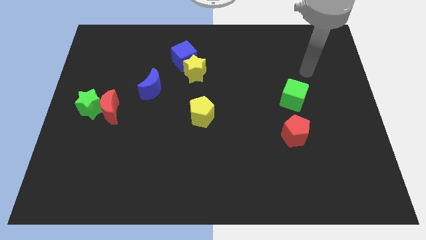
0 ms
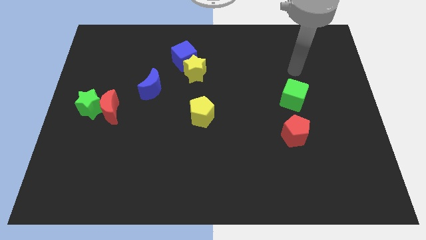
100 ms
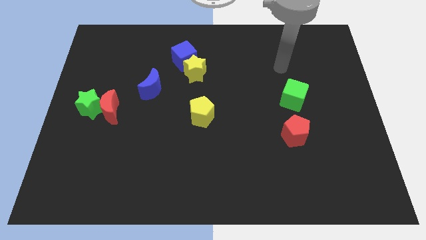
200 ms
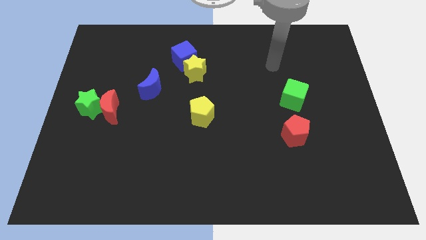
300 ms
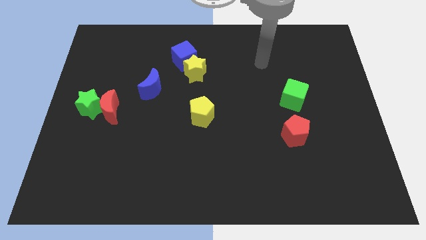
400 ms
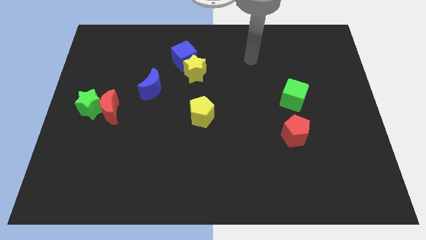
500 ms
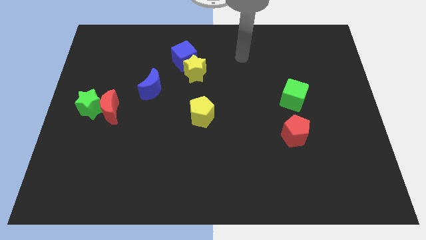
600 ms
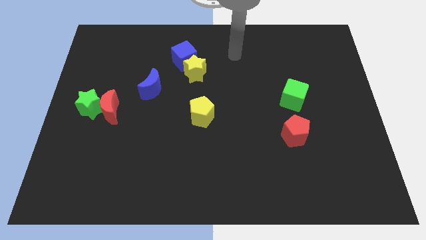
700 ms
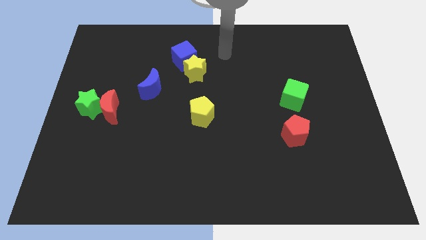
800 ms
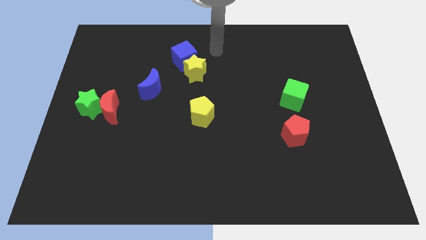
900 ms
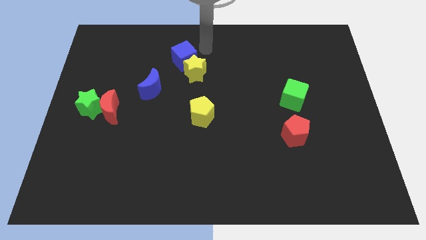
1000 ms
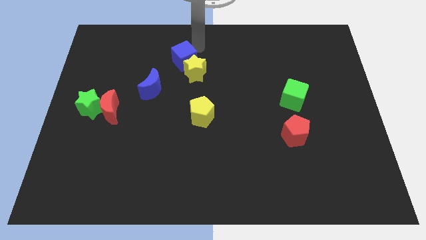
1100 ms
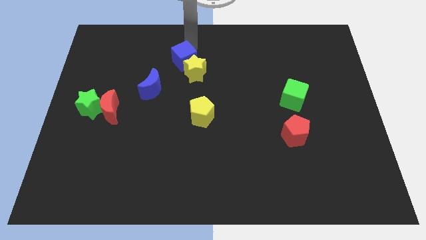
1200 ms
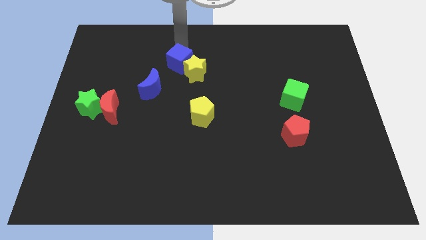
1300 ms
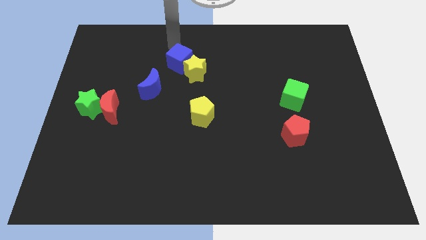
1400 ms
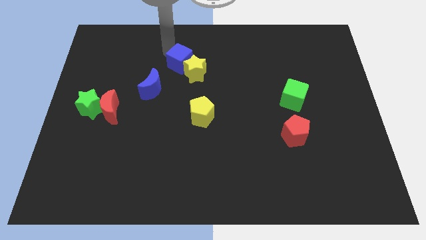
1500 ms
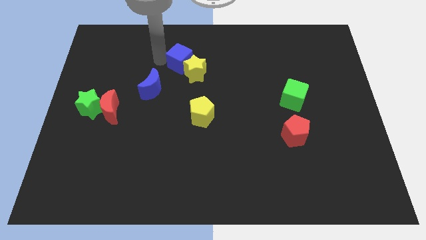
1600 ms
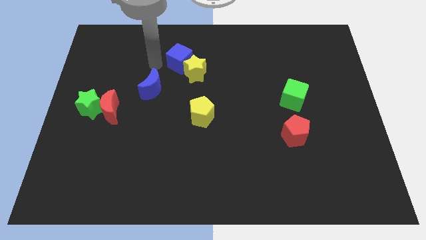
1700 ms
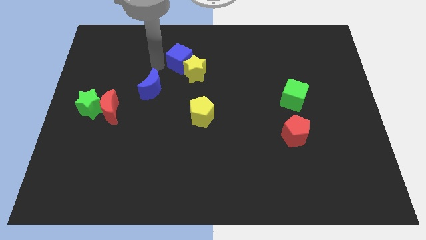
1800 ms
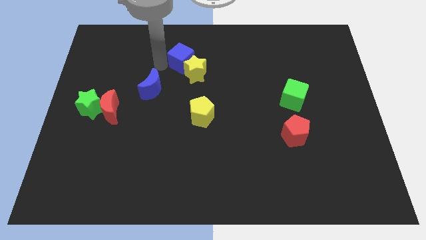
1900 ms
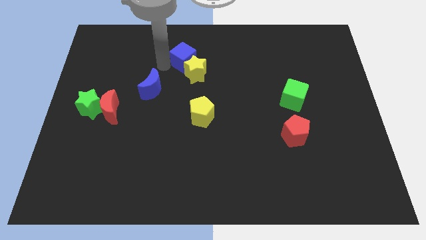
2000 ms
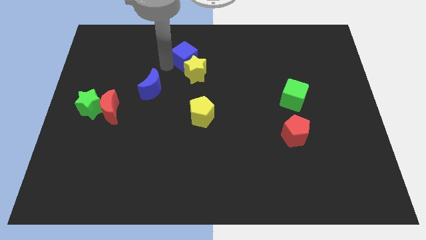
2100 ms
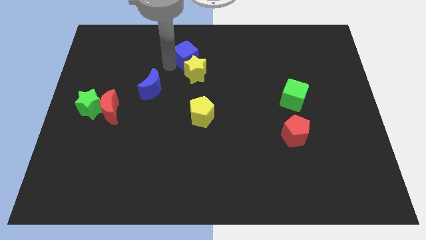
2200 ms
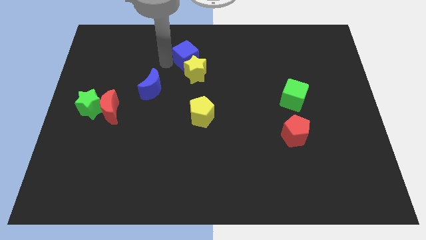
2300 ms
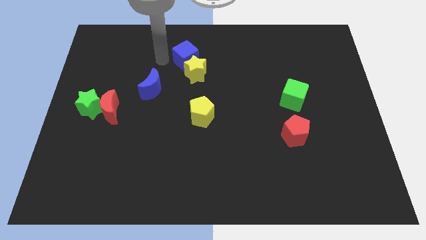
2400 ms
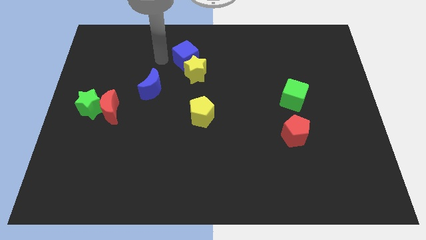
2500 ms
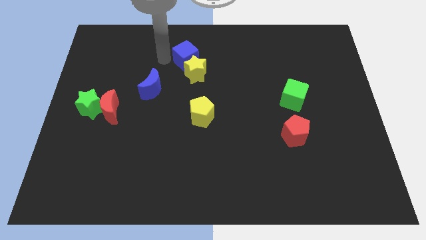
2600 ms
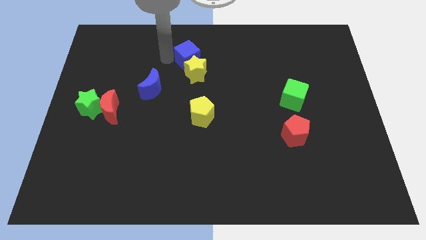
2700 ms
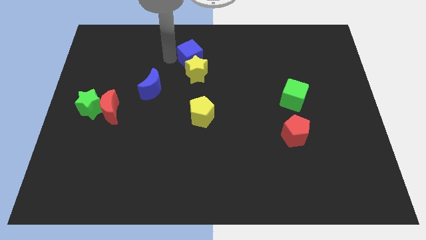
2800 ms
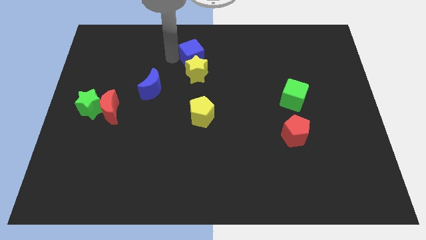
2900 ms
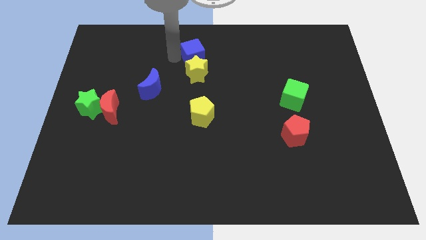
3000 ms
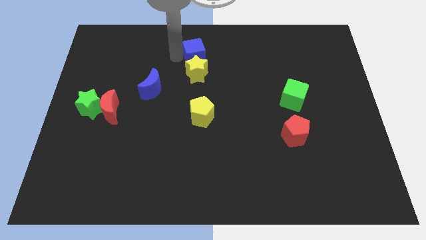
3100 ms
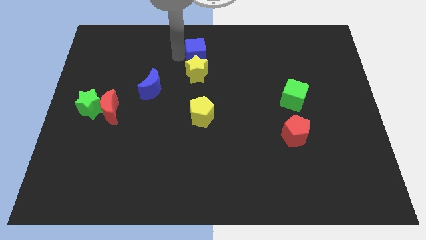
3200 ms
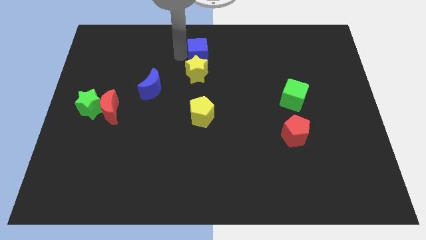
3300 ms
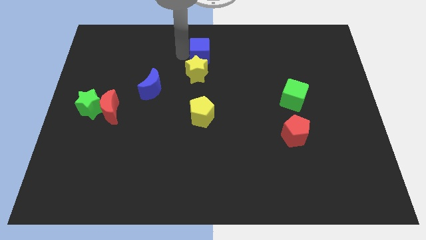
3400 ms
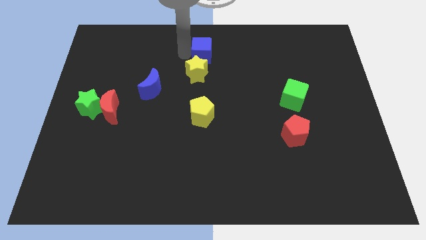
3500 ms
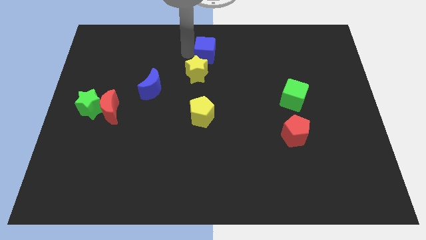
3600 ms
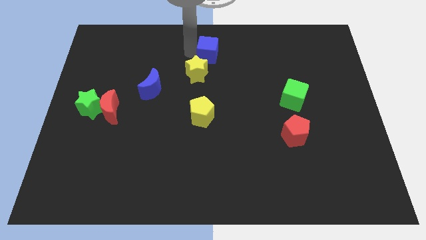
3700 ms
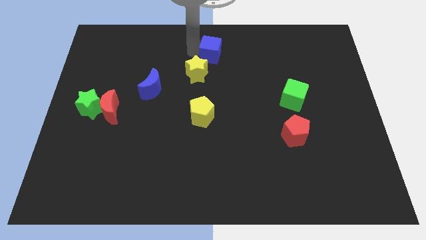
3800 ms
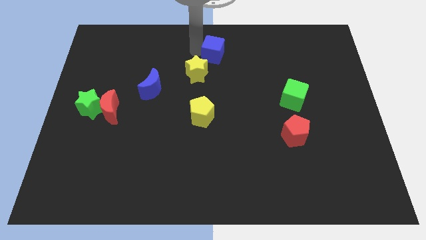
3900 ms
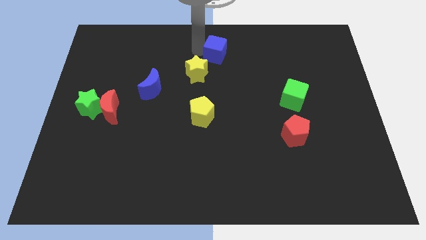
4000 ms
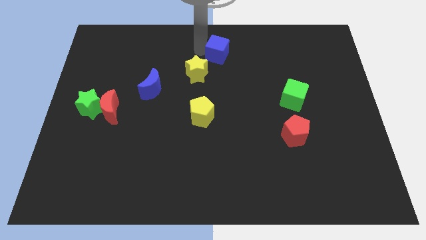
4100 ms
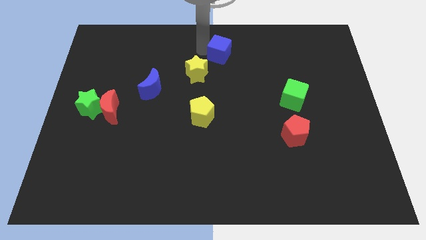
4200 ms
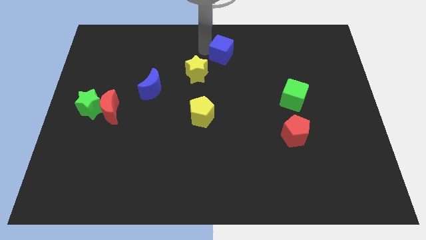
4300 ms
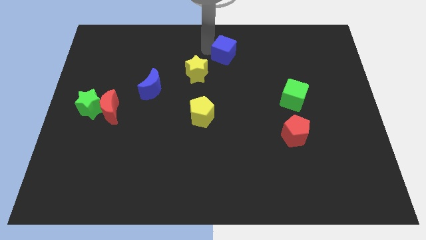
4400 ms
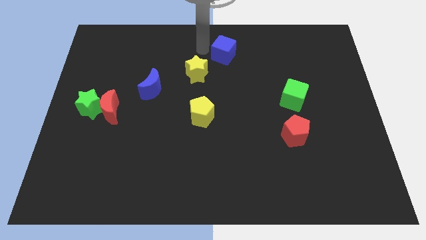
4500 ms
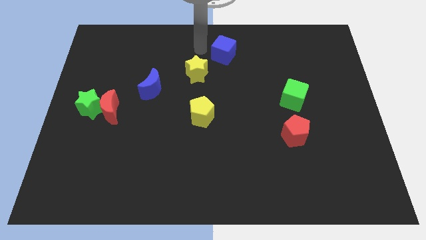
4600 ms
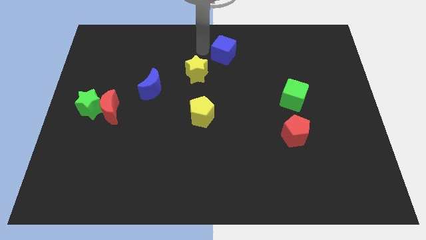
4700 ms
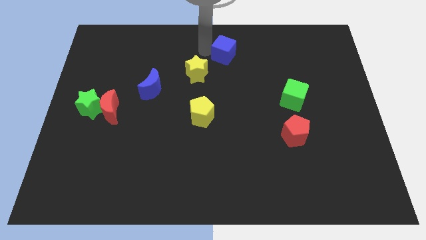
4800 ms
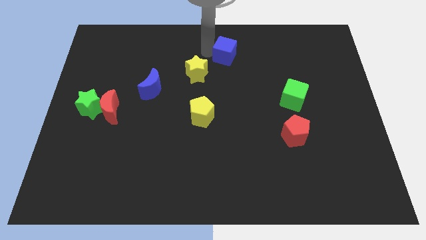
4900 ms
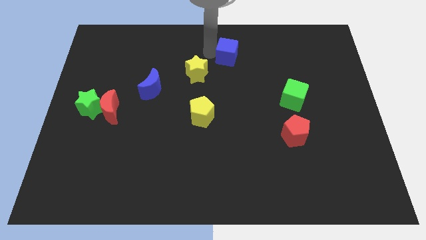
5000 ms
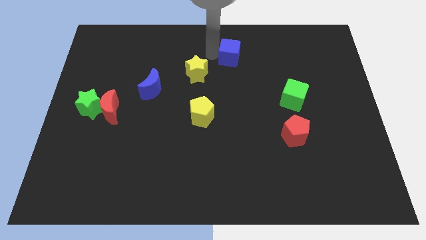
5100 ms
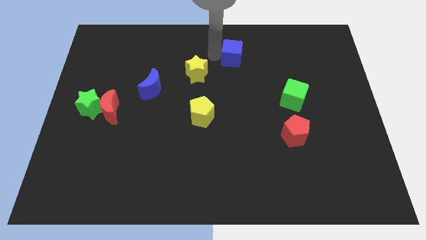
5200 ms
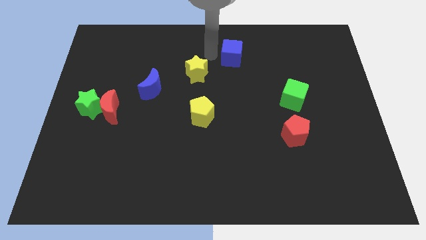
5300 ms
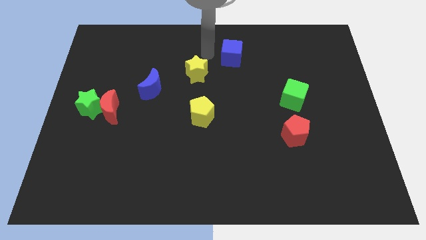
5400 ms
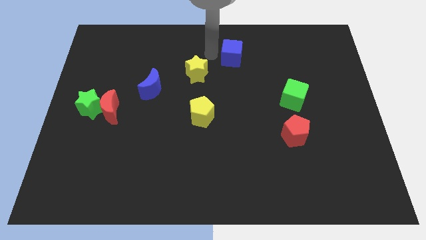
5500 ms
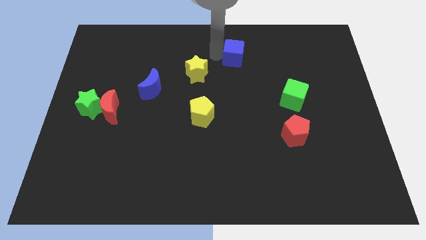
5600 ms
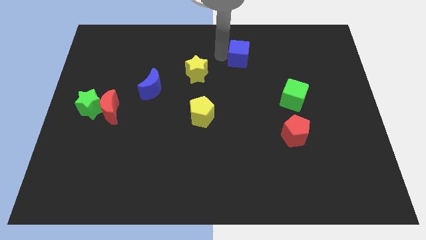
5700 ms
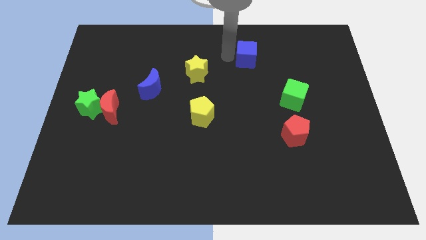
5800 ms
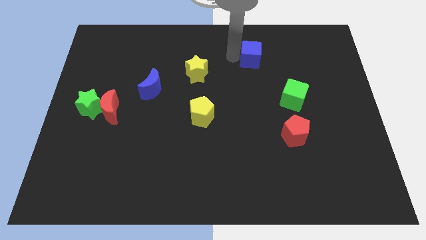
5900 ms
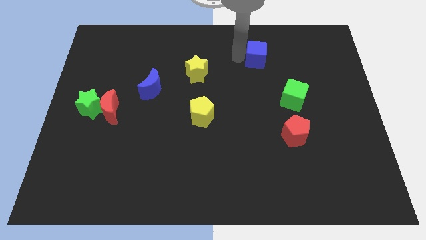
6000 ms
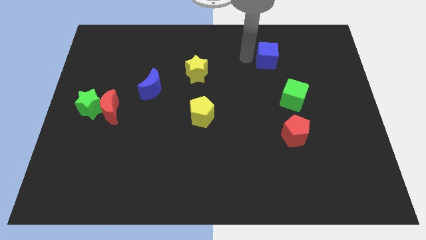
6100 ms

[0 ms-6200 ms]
push the blue cube right

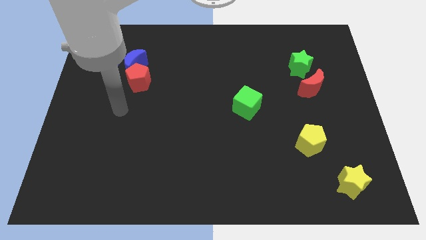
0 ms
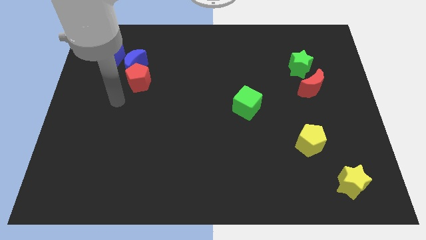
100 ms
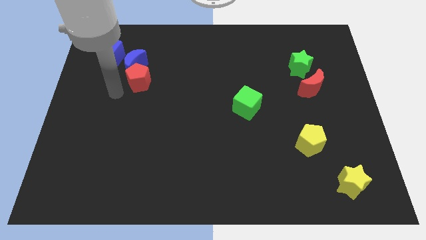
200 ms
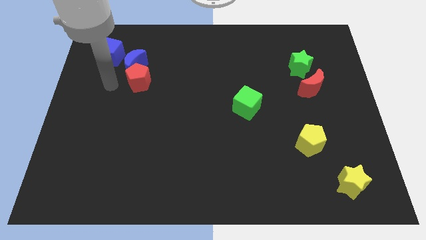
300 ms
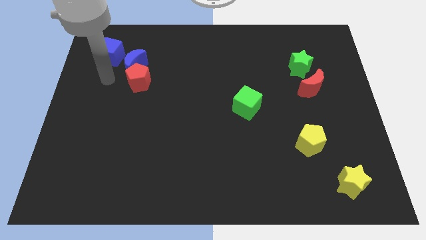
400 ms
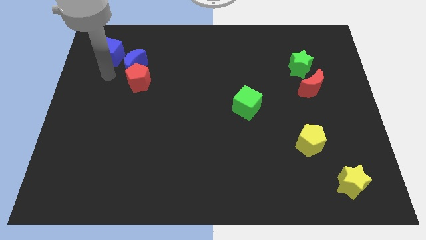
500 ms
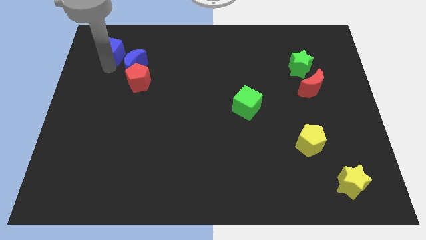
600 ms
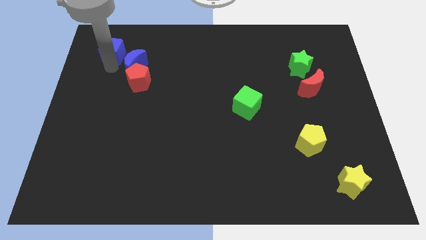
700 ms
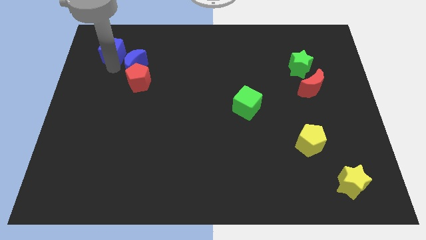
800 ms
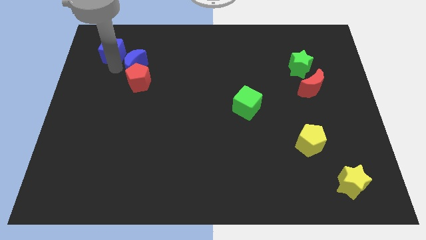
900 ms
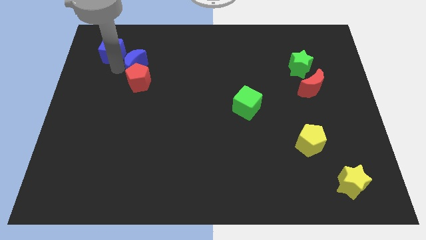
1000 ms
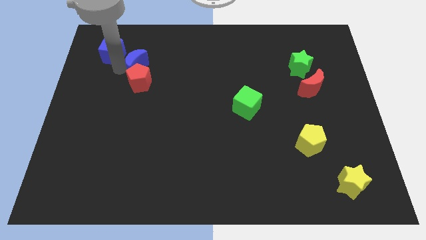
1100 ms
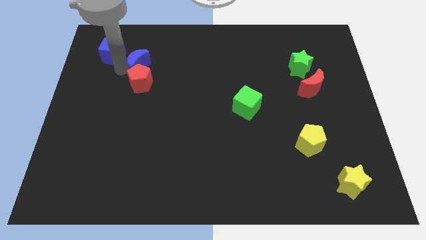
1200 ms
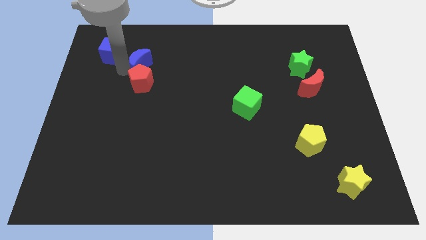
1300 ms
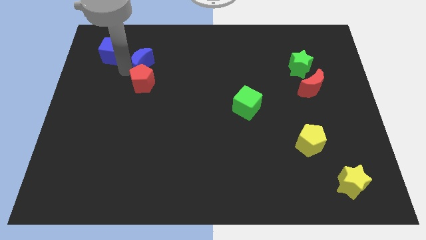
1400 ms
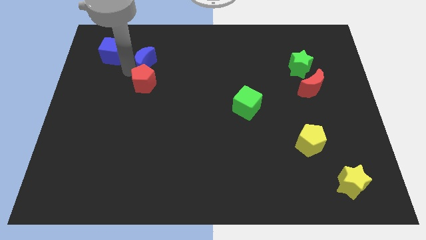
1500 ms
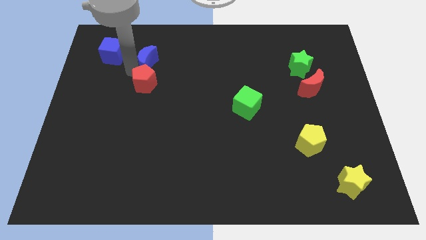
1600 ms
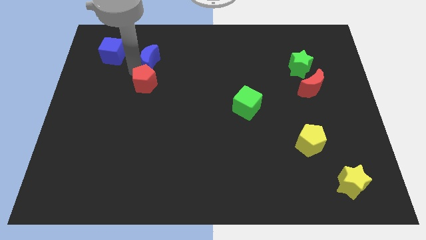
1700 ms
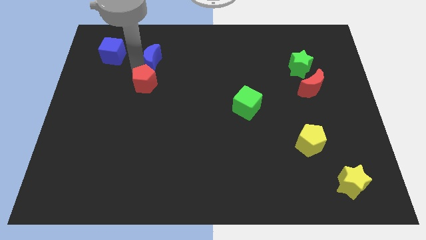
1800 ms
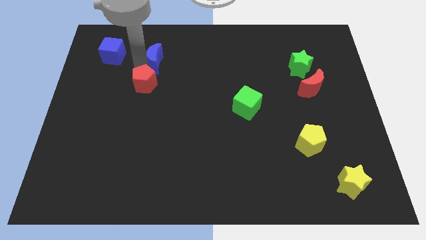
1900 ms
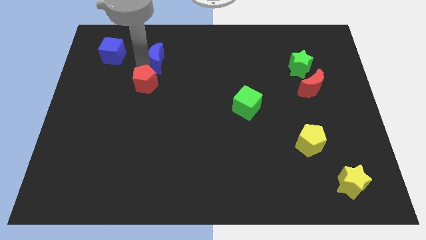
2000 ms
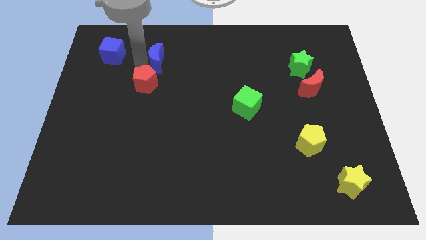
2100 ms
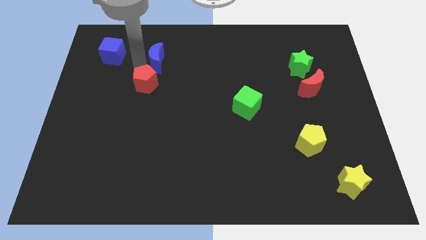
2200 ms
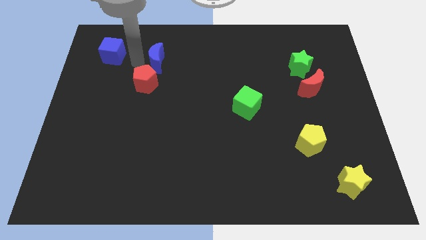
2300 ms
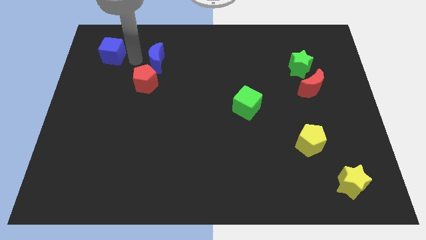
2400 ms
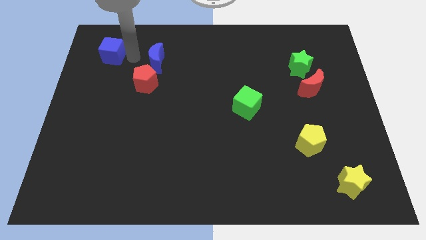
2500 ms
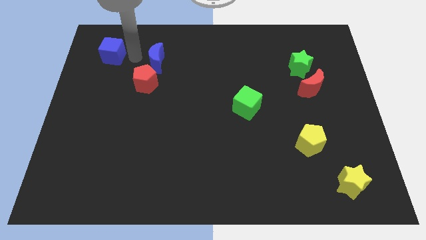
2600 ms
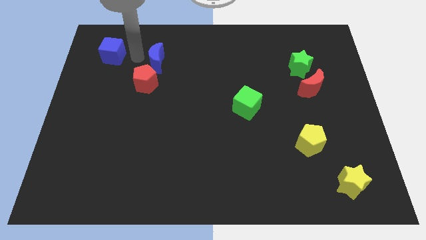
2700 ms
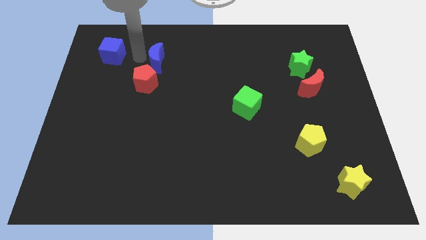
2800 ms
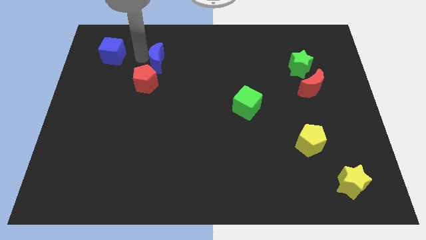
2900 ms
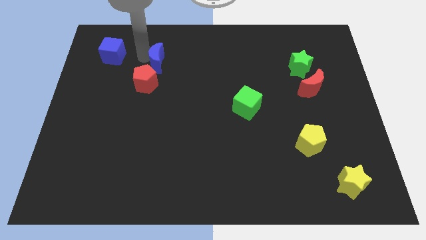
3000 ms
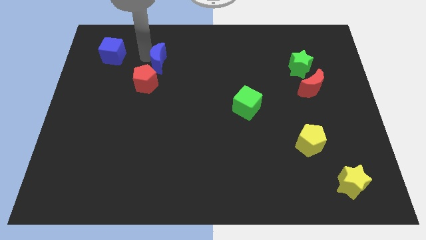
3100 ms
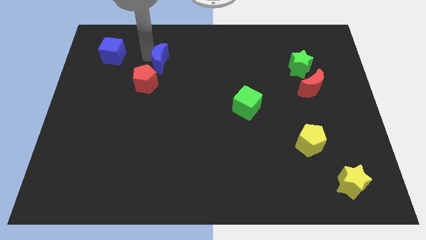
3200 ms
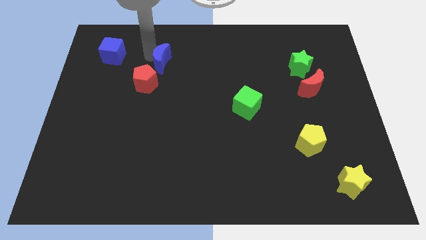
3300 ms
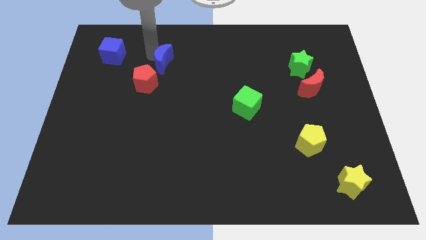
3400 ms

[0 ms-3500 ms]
move the blue moon right somewhat
